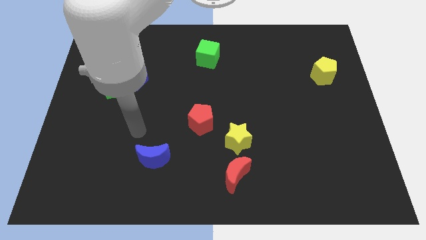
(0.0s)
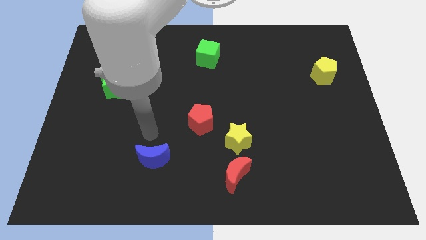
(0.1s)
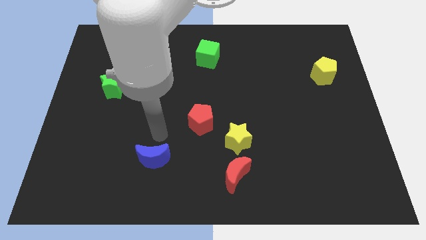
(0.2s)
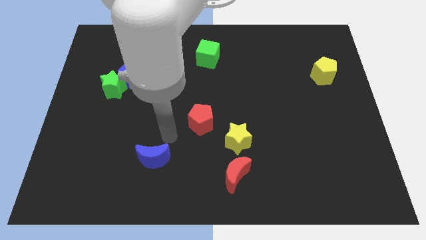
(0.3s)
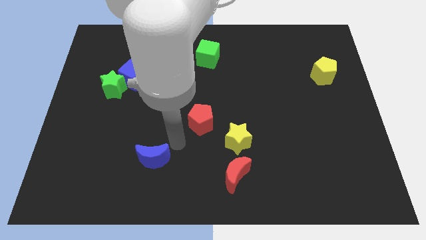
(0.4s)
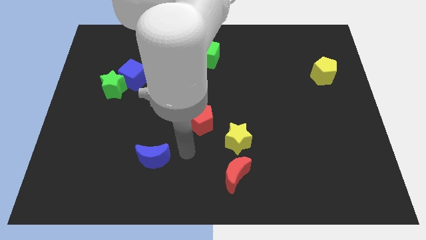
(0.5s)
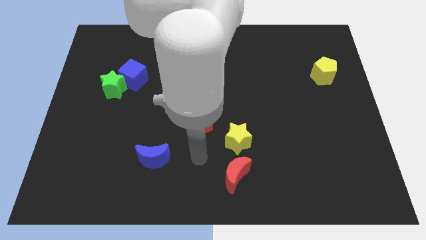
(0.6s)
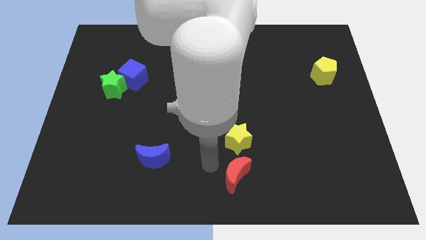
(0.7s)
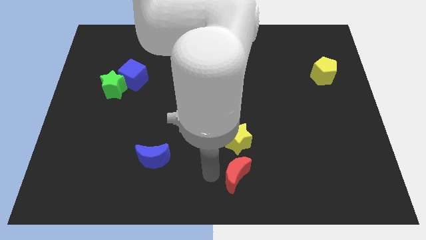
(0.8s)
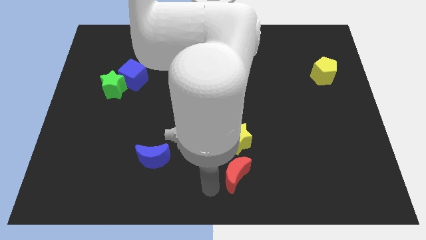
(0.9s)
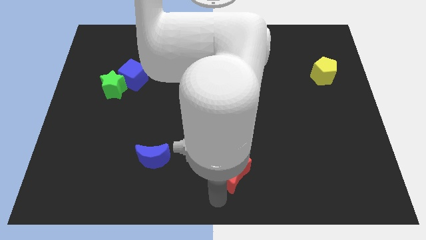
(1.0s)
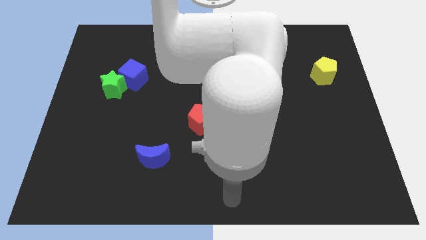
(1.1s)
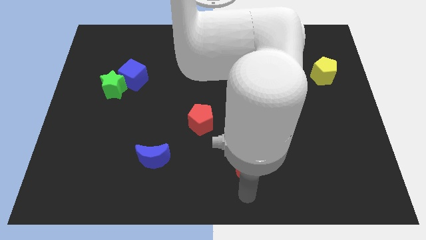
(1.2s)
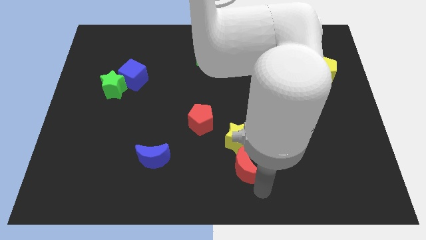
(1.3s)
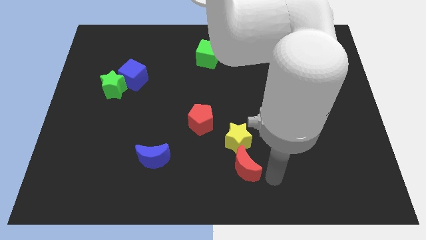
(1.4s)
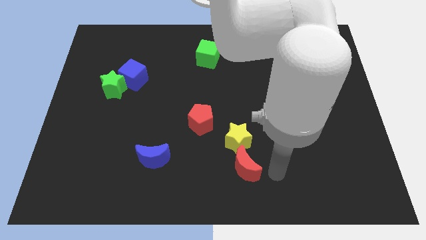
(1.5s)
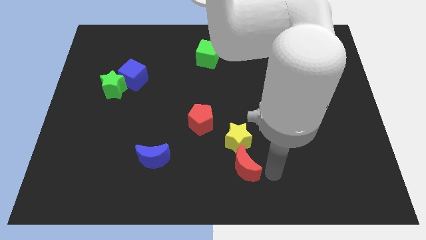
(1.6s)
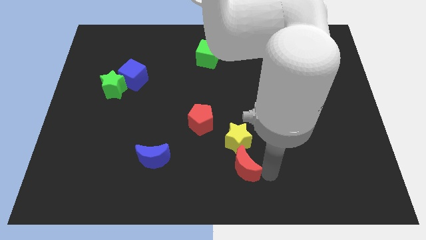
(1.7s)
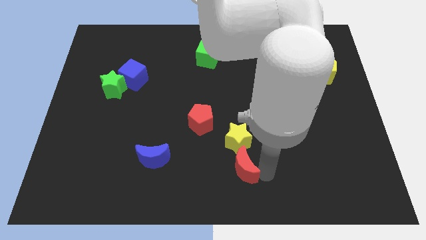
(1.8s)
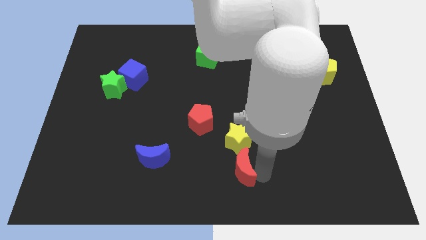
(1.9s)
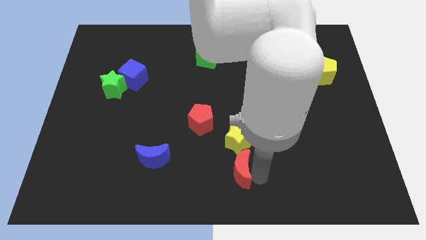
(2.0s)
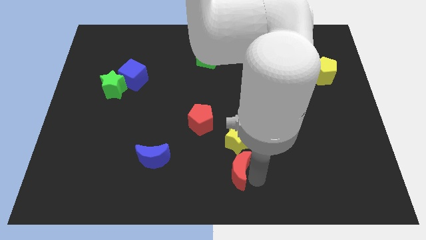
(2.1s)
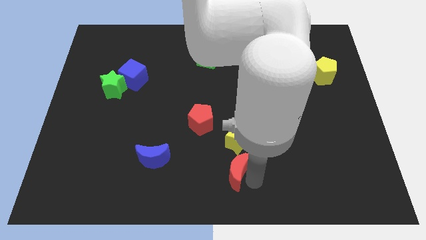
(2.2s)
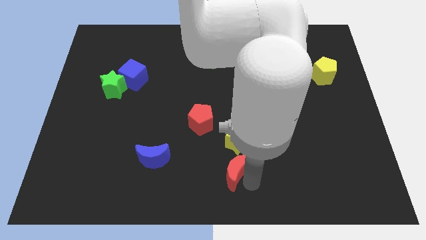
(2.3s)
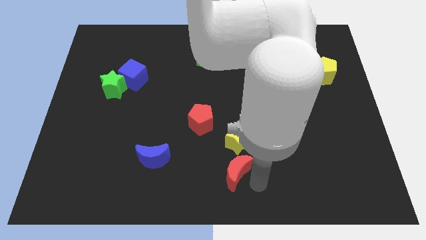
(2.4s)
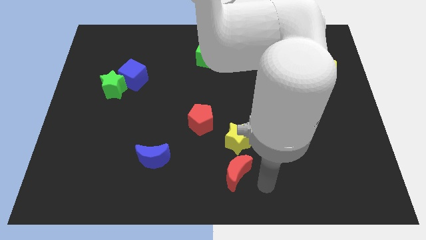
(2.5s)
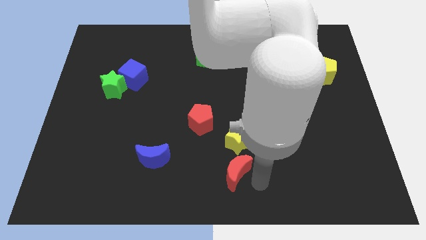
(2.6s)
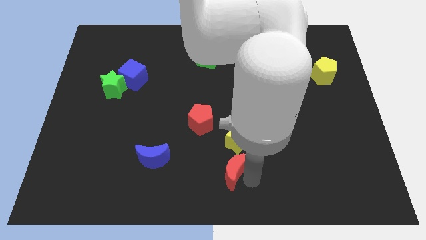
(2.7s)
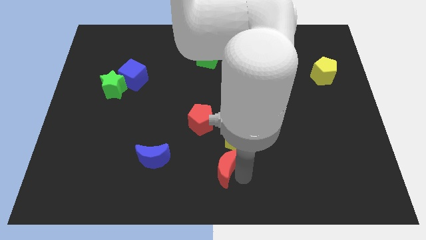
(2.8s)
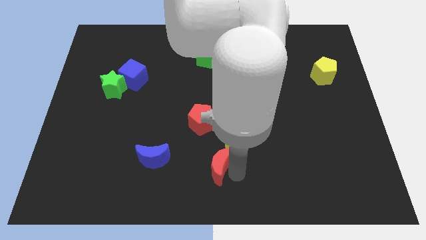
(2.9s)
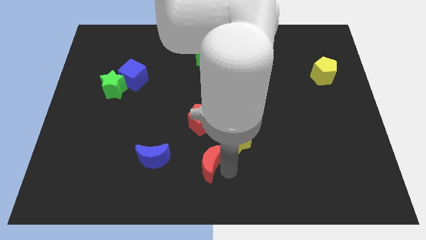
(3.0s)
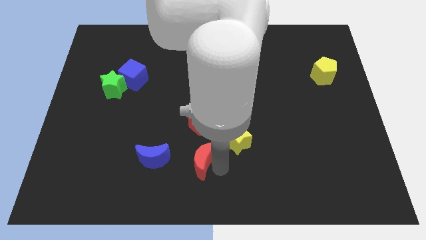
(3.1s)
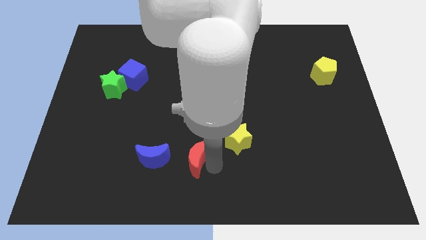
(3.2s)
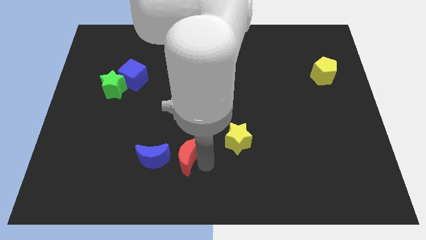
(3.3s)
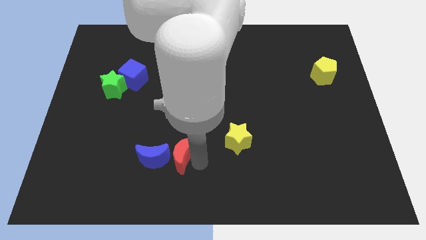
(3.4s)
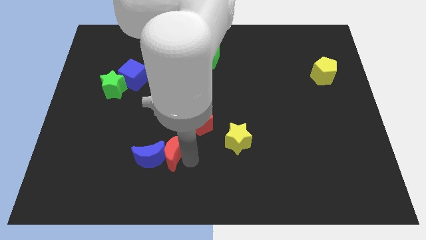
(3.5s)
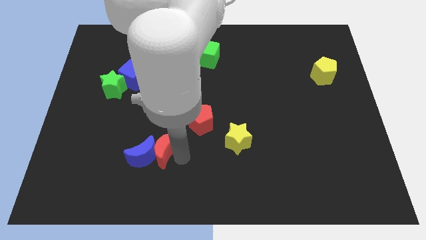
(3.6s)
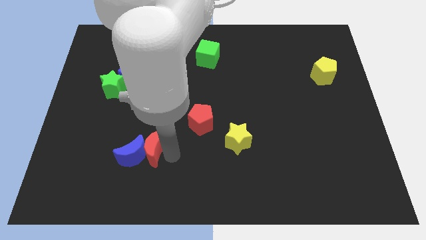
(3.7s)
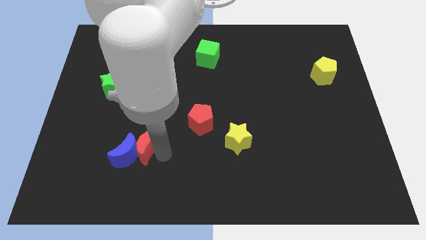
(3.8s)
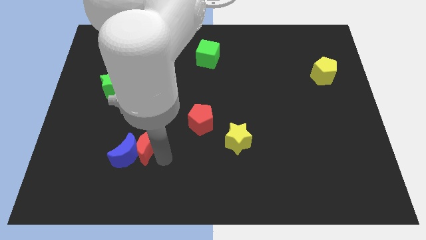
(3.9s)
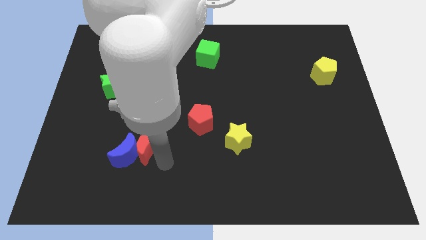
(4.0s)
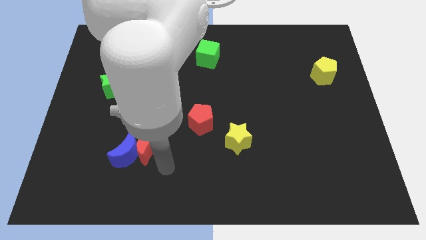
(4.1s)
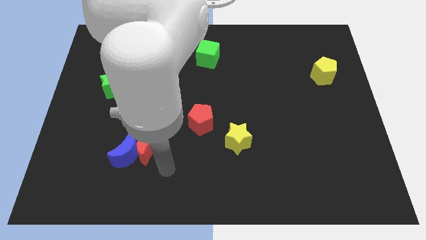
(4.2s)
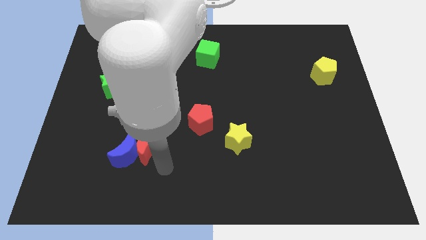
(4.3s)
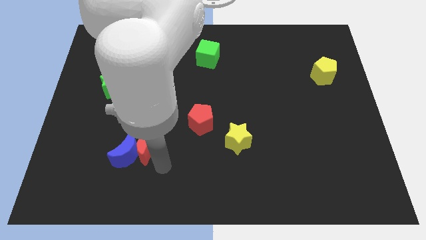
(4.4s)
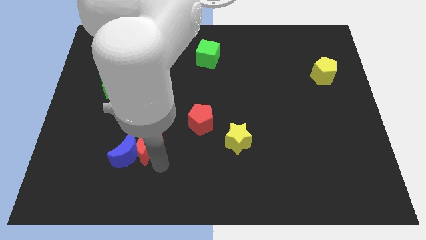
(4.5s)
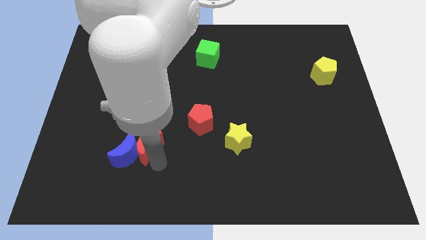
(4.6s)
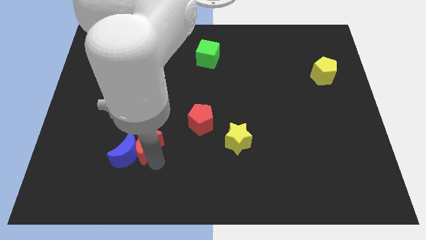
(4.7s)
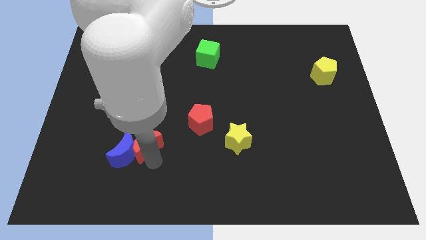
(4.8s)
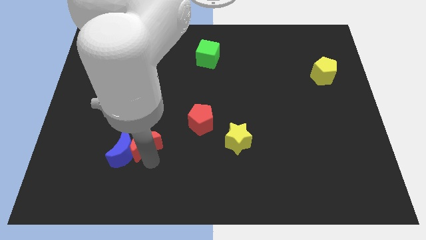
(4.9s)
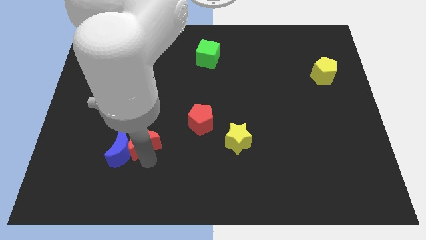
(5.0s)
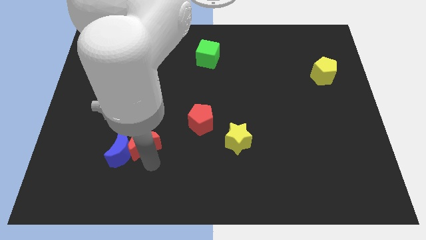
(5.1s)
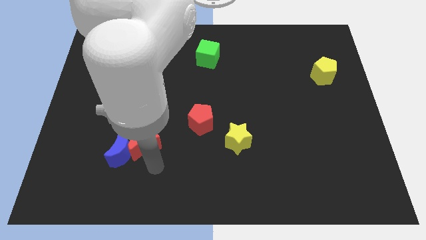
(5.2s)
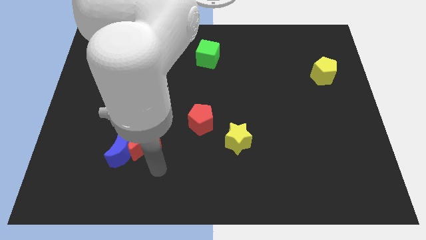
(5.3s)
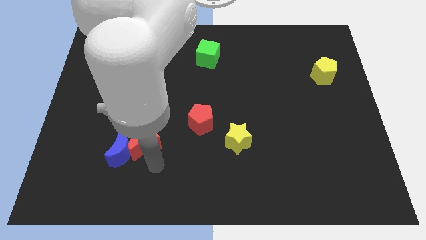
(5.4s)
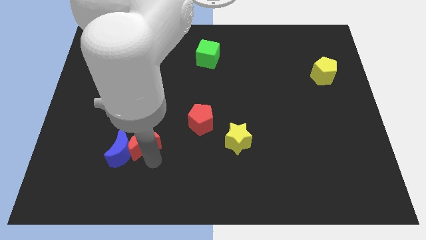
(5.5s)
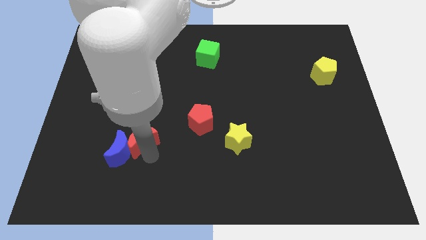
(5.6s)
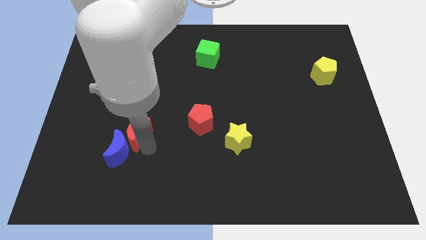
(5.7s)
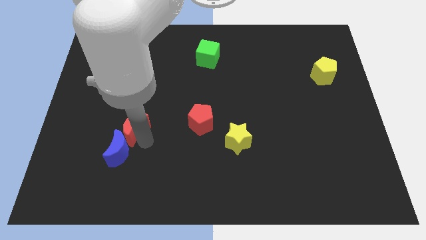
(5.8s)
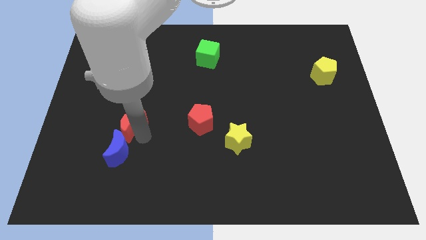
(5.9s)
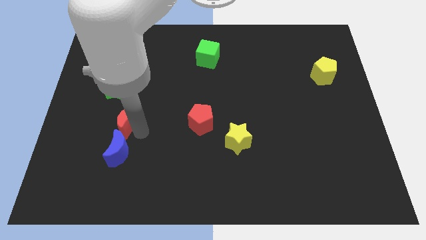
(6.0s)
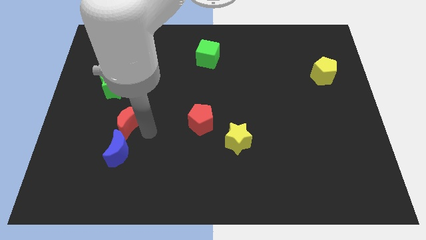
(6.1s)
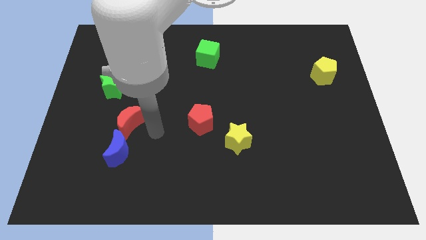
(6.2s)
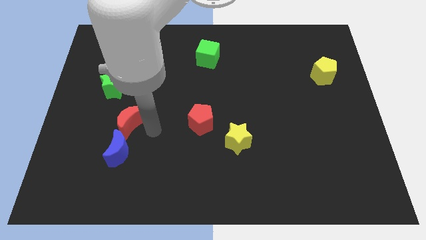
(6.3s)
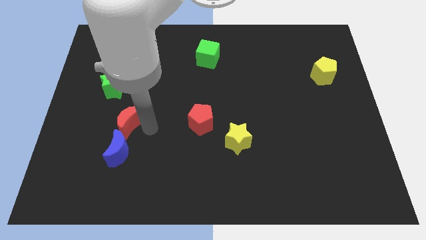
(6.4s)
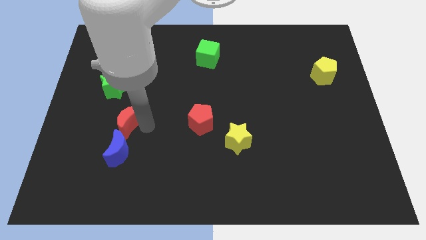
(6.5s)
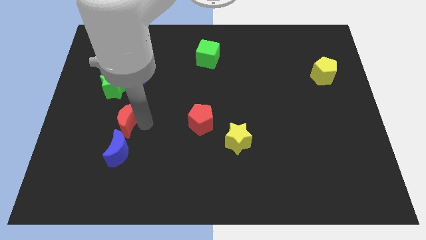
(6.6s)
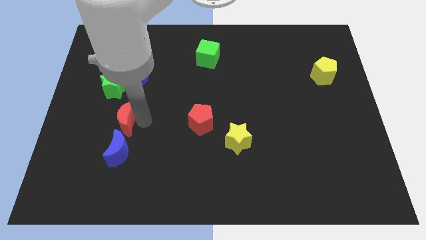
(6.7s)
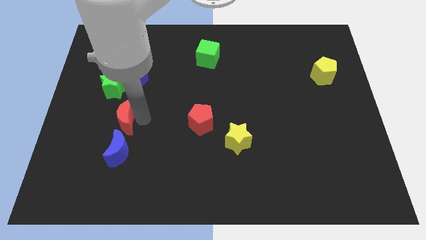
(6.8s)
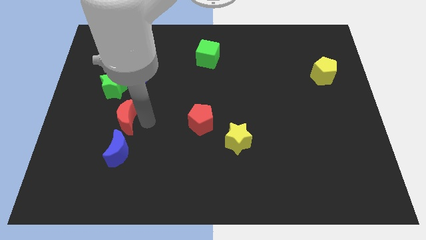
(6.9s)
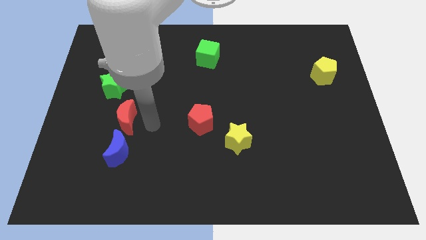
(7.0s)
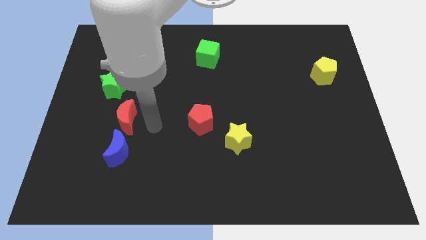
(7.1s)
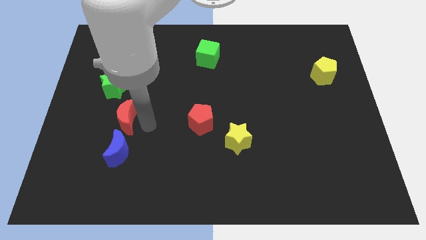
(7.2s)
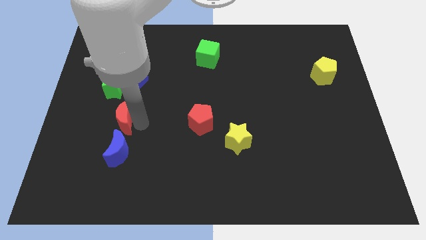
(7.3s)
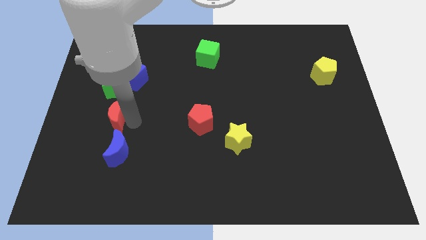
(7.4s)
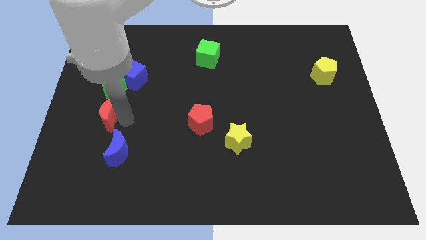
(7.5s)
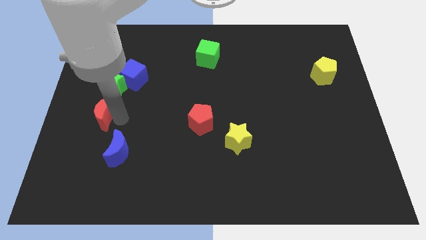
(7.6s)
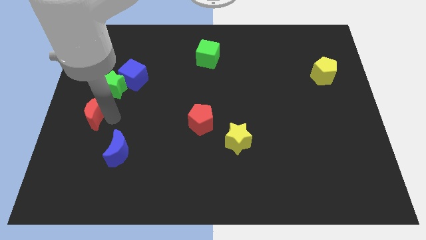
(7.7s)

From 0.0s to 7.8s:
slide the red moon to the center left

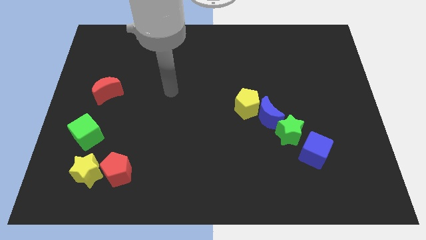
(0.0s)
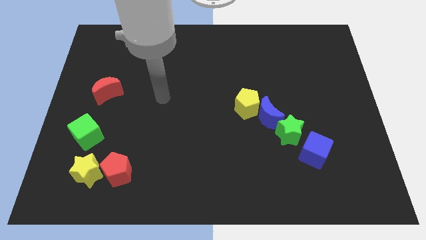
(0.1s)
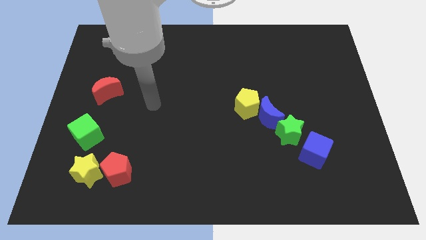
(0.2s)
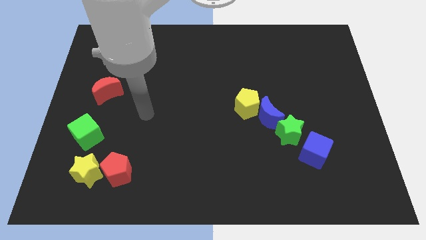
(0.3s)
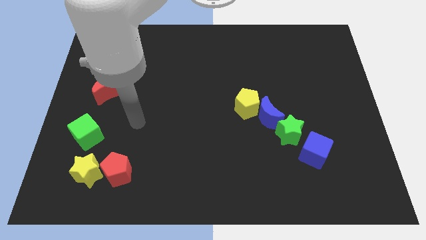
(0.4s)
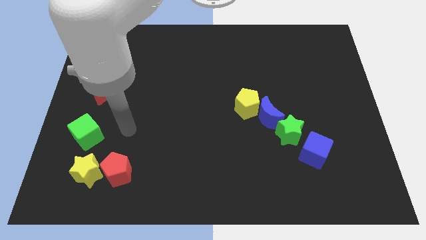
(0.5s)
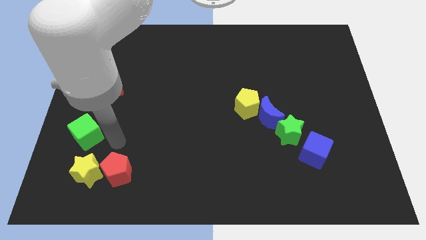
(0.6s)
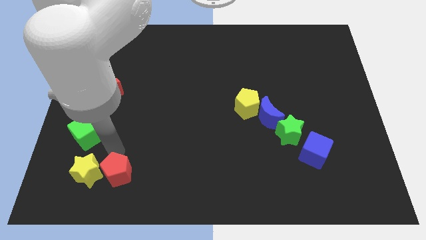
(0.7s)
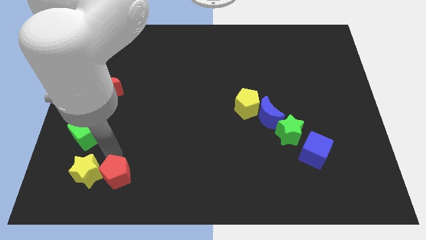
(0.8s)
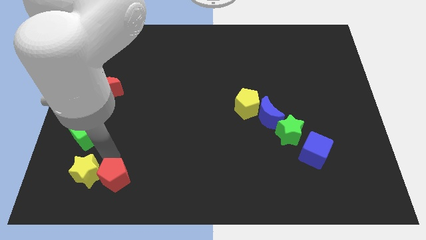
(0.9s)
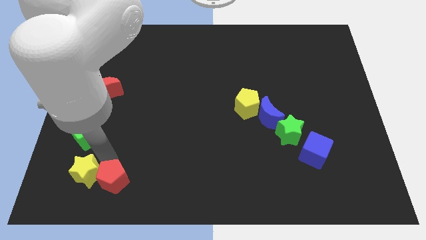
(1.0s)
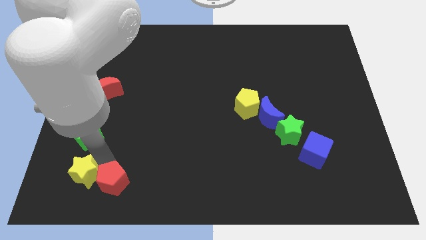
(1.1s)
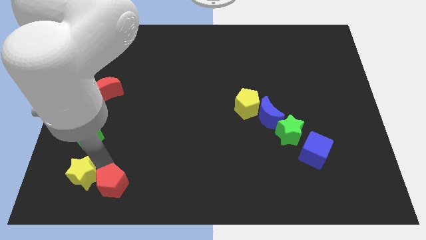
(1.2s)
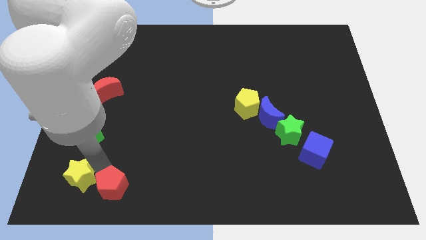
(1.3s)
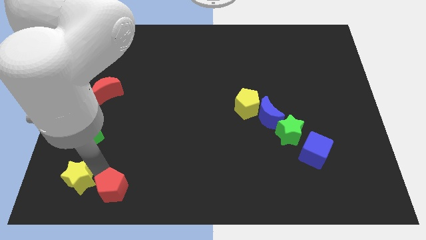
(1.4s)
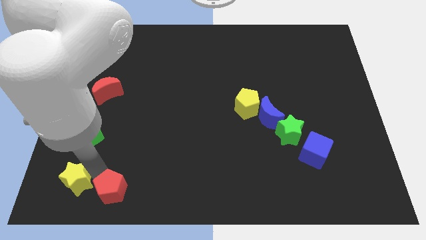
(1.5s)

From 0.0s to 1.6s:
push the yellow star to the bottom left
